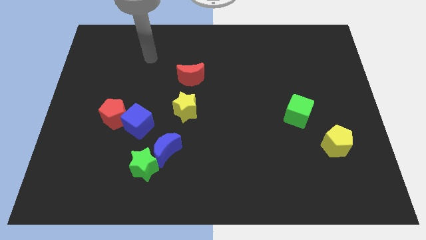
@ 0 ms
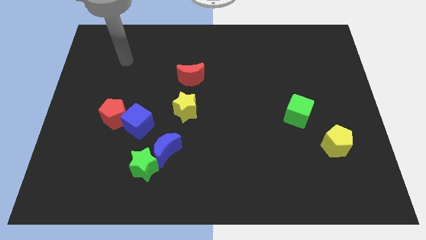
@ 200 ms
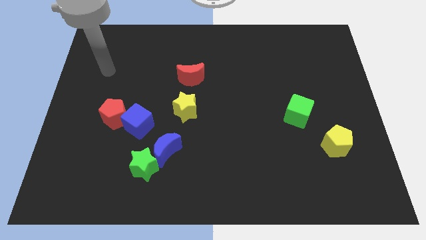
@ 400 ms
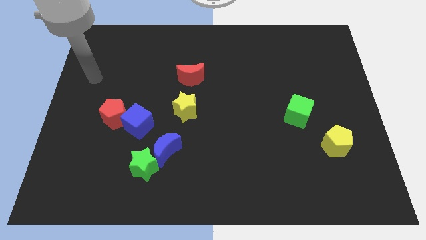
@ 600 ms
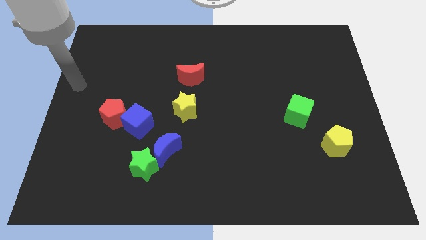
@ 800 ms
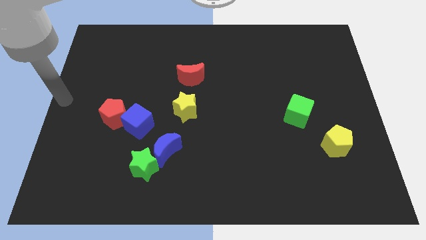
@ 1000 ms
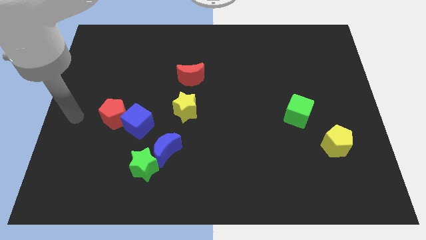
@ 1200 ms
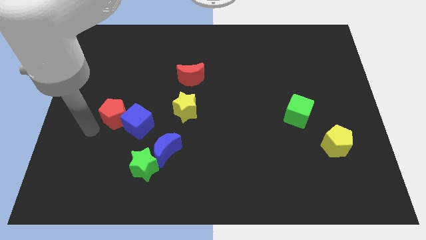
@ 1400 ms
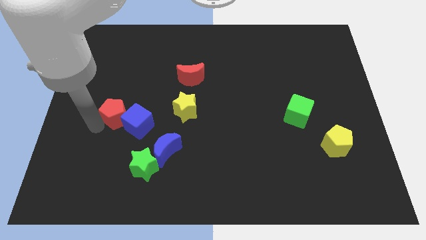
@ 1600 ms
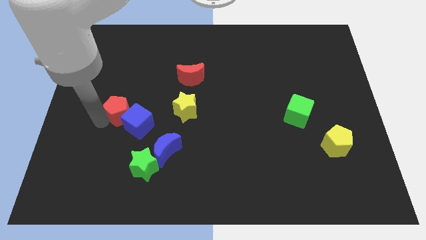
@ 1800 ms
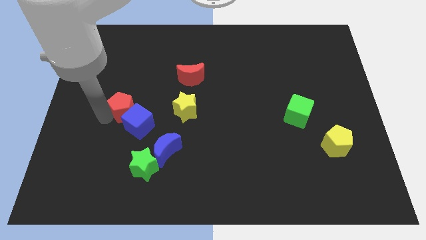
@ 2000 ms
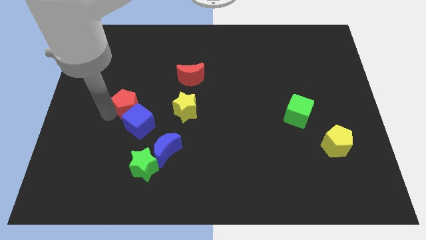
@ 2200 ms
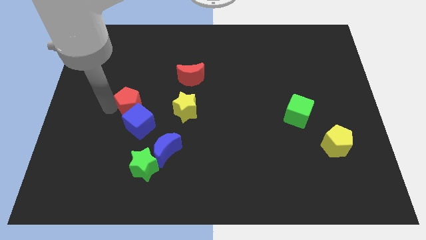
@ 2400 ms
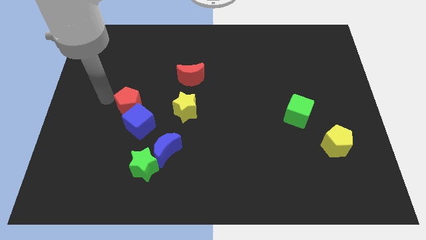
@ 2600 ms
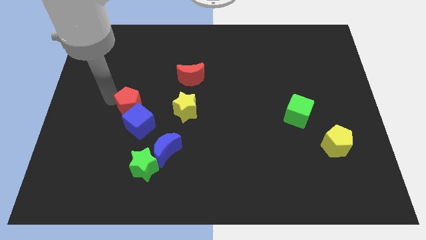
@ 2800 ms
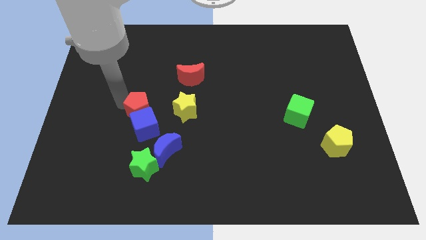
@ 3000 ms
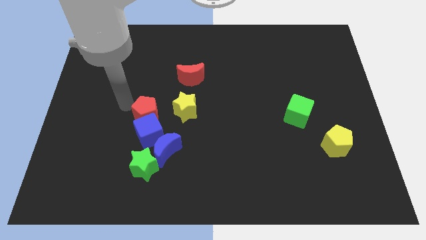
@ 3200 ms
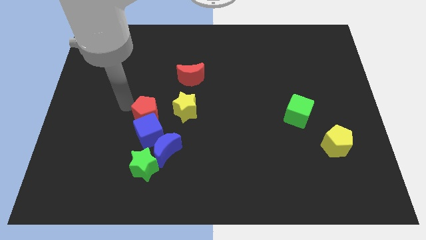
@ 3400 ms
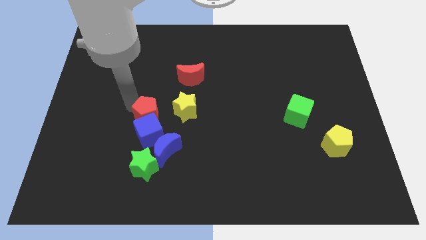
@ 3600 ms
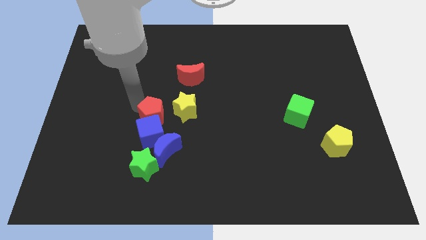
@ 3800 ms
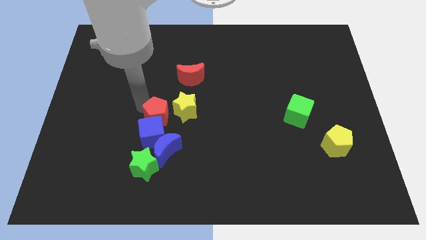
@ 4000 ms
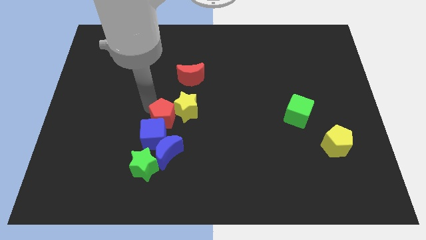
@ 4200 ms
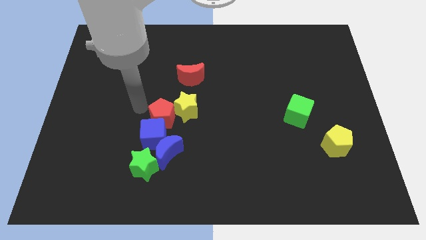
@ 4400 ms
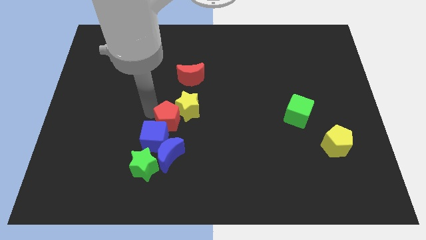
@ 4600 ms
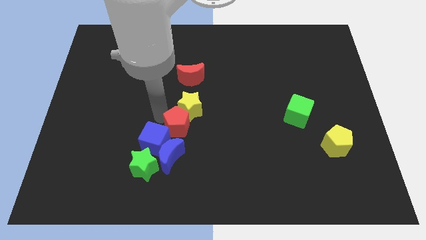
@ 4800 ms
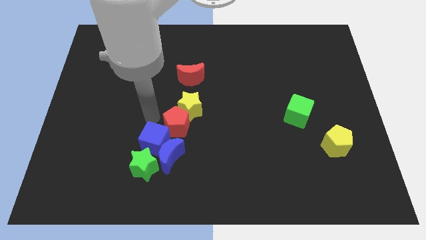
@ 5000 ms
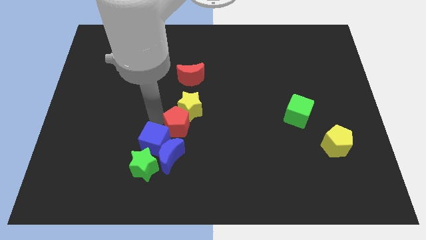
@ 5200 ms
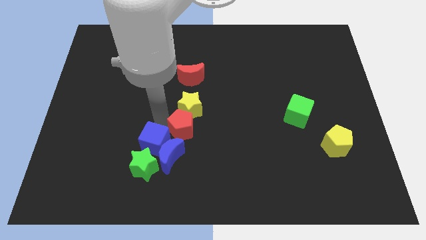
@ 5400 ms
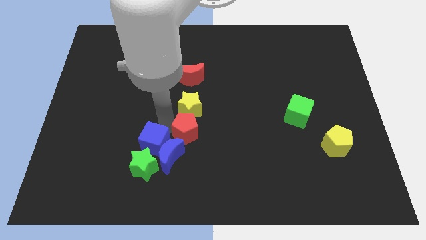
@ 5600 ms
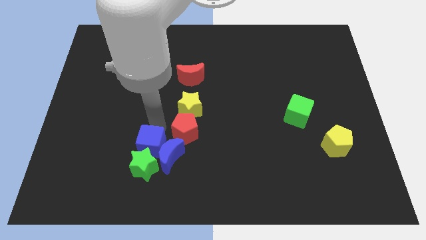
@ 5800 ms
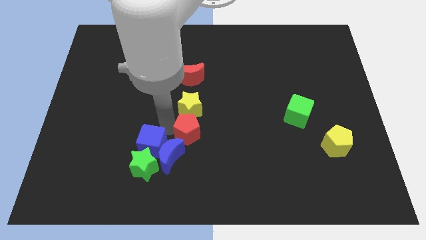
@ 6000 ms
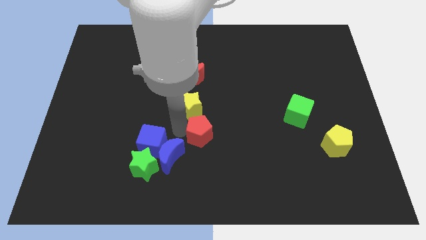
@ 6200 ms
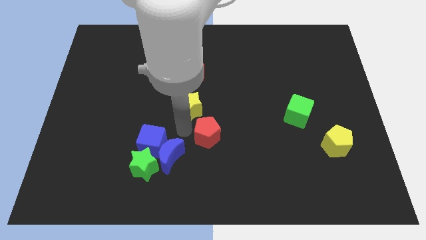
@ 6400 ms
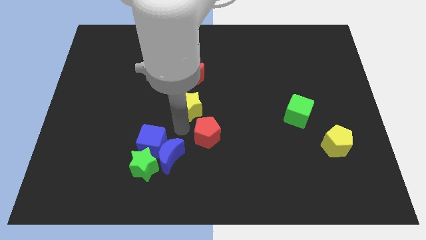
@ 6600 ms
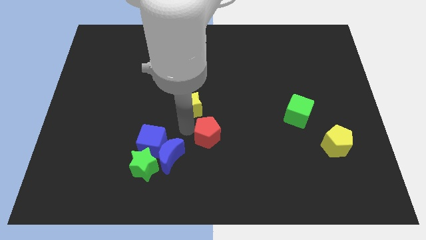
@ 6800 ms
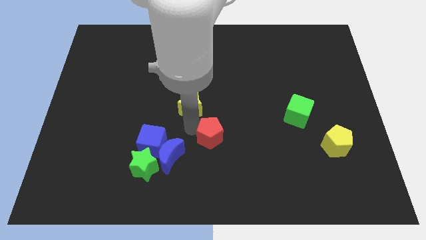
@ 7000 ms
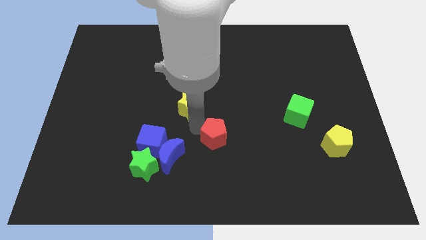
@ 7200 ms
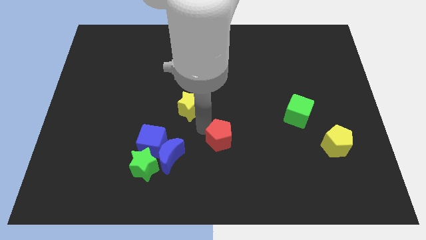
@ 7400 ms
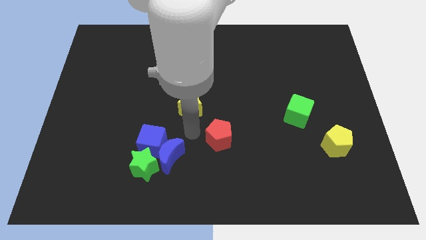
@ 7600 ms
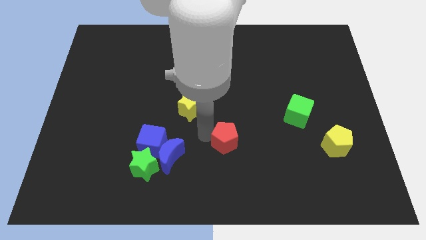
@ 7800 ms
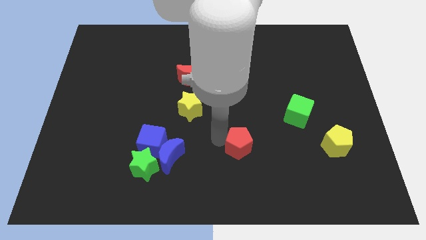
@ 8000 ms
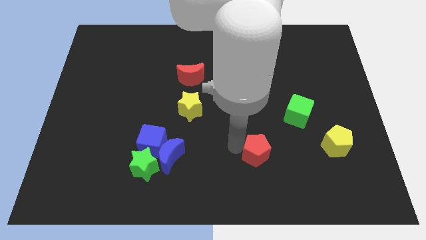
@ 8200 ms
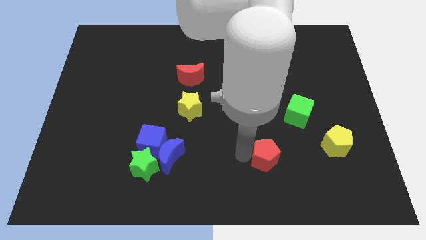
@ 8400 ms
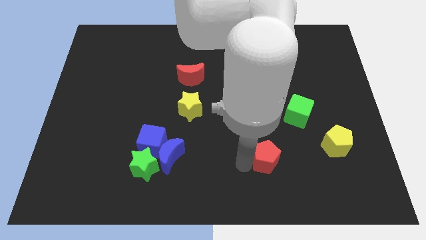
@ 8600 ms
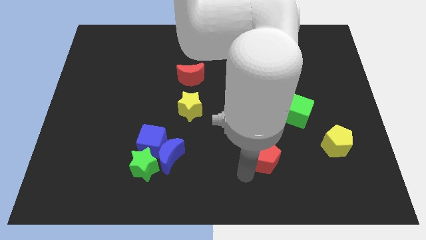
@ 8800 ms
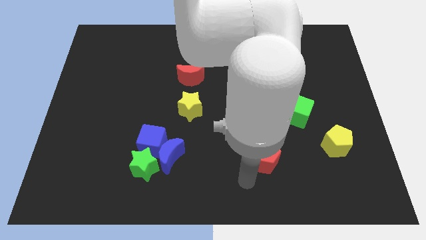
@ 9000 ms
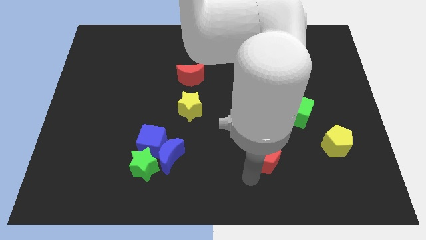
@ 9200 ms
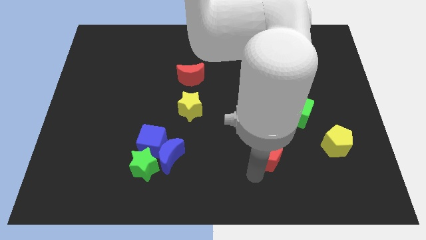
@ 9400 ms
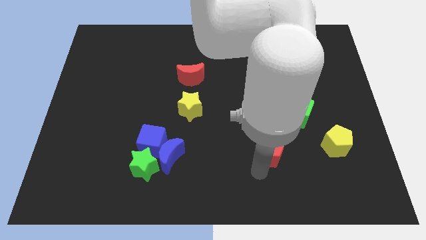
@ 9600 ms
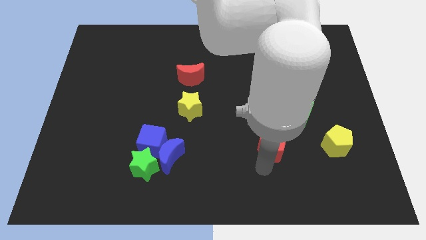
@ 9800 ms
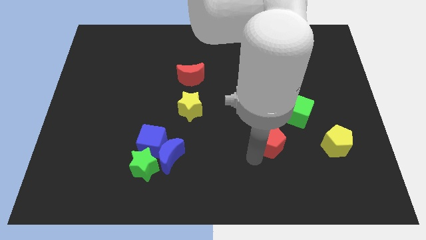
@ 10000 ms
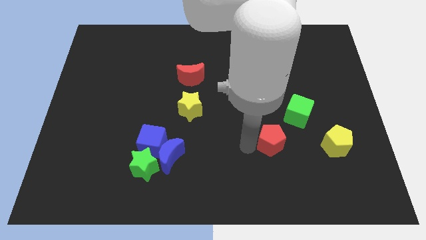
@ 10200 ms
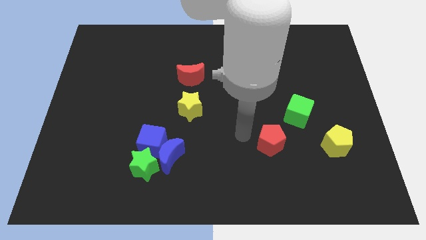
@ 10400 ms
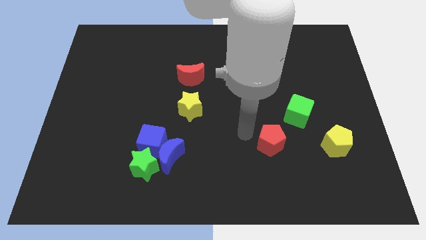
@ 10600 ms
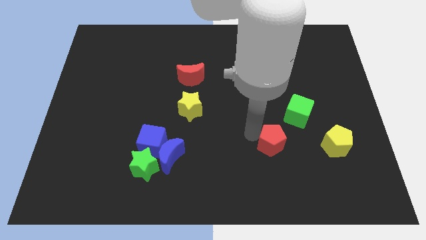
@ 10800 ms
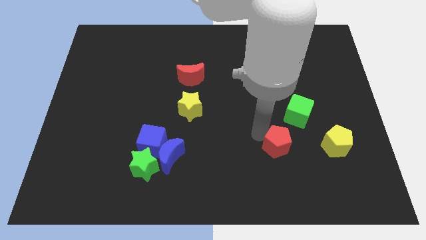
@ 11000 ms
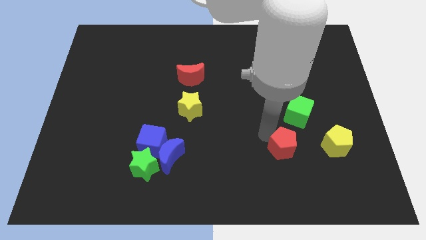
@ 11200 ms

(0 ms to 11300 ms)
put the red pentagon below the green cube

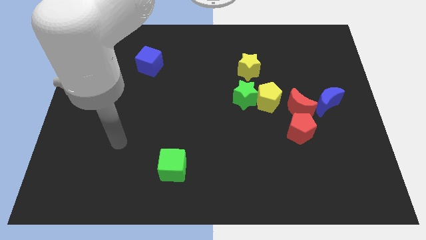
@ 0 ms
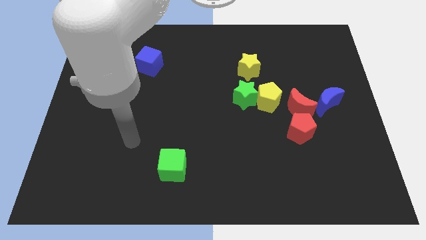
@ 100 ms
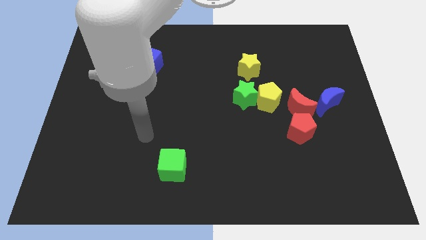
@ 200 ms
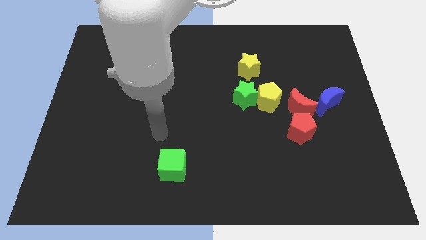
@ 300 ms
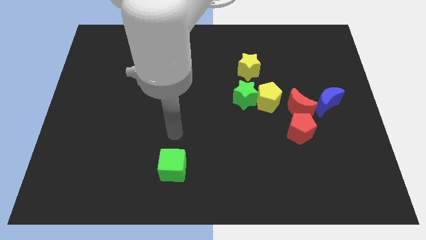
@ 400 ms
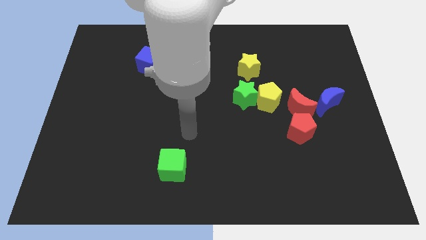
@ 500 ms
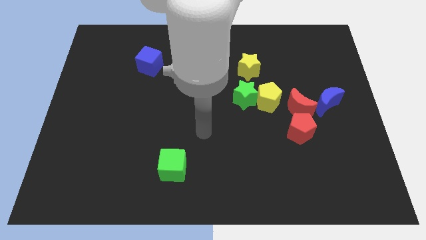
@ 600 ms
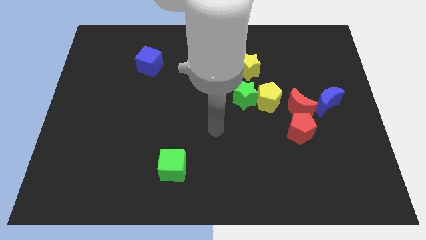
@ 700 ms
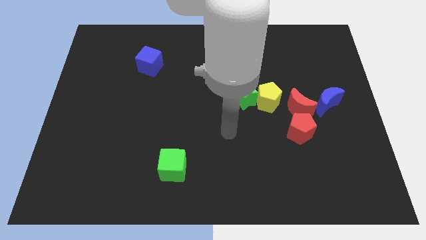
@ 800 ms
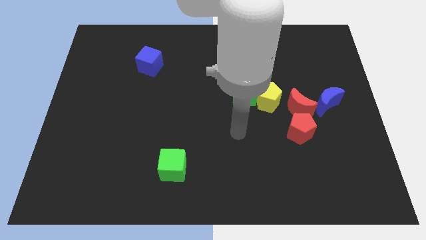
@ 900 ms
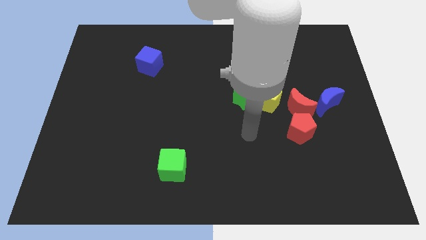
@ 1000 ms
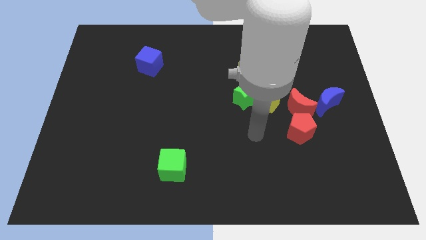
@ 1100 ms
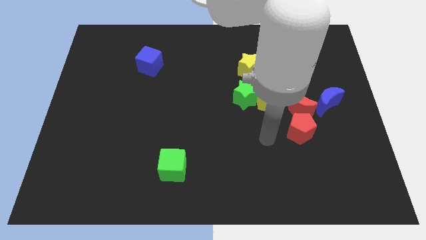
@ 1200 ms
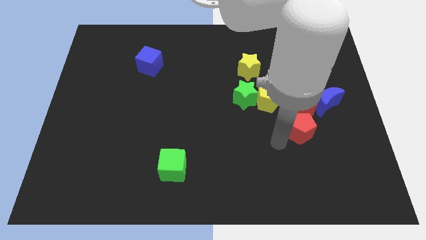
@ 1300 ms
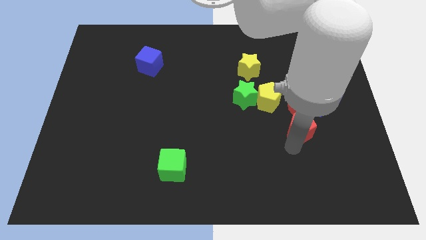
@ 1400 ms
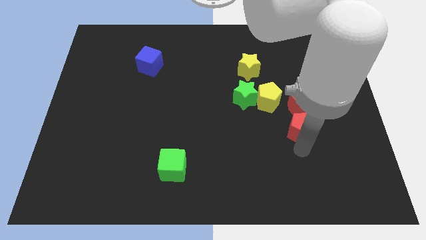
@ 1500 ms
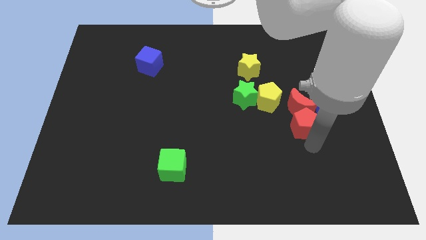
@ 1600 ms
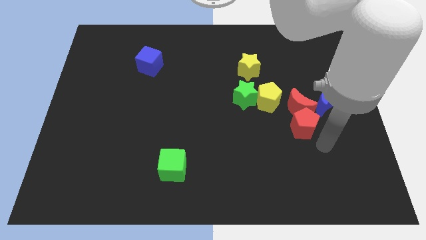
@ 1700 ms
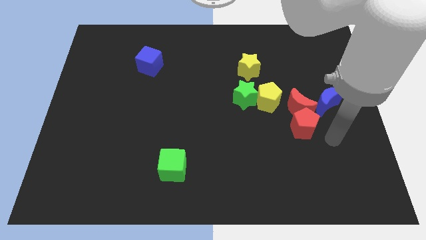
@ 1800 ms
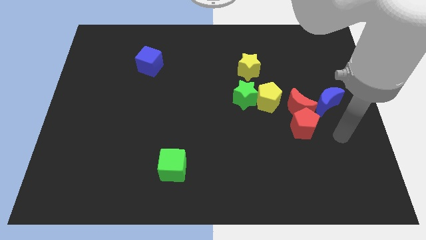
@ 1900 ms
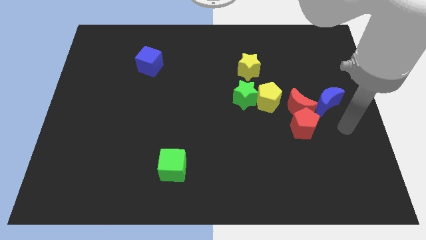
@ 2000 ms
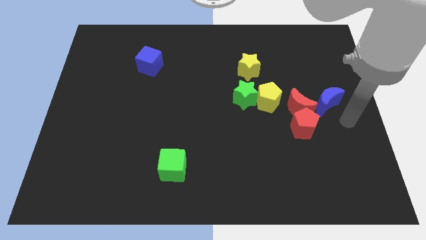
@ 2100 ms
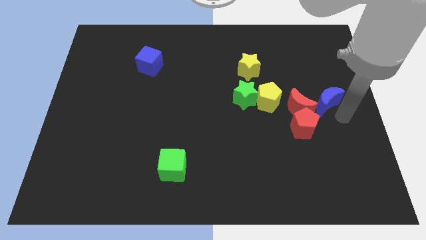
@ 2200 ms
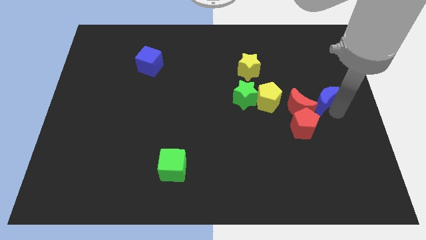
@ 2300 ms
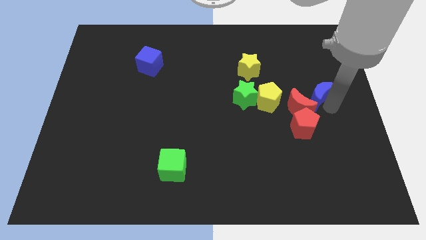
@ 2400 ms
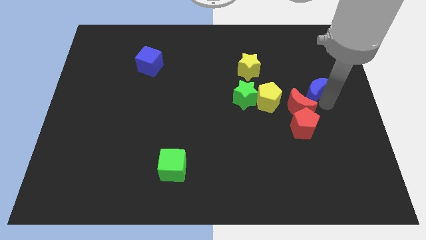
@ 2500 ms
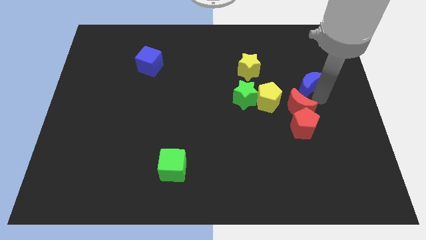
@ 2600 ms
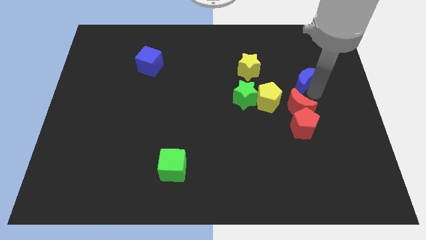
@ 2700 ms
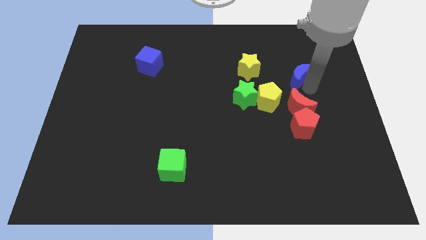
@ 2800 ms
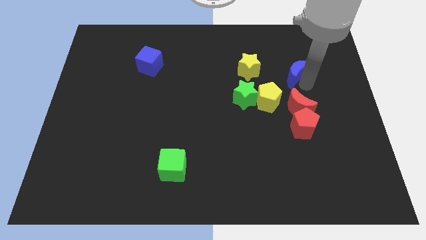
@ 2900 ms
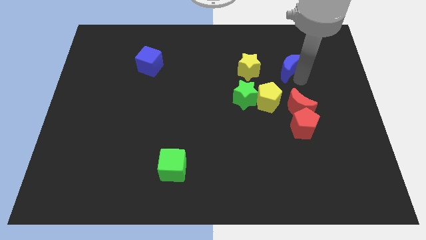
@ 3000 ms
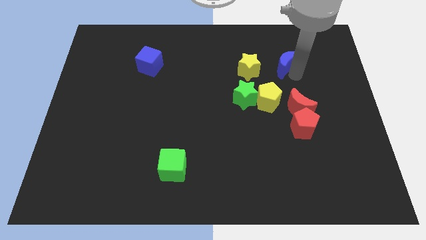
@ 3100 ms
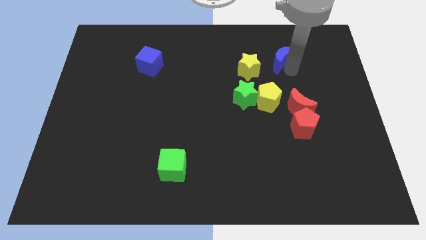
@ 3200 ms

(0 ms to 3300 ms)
slide the blue moon to the top right side of the yellow star
